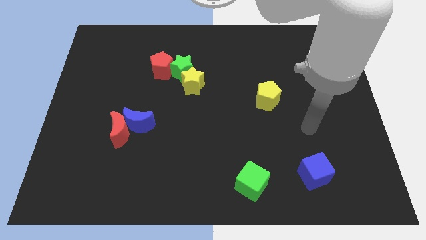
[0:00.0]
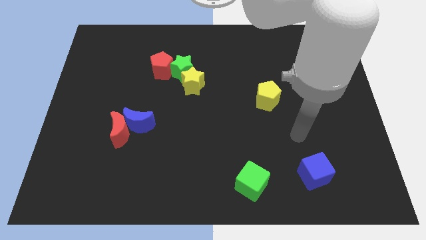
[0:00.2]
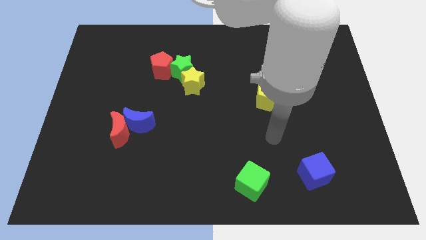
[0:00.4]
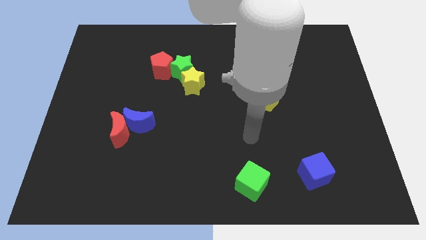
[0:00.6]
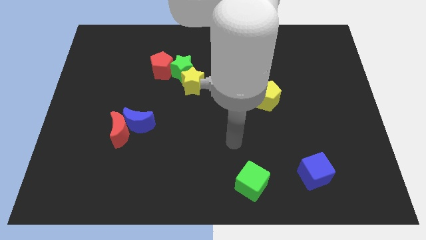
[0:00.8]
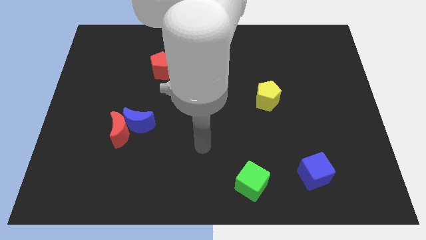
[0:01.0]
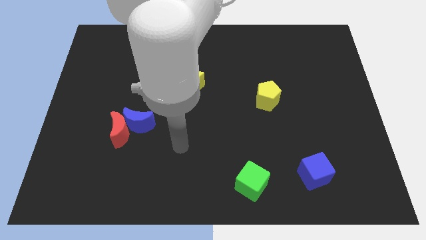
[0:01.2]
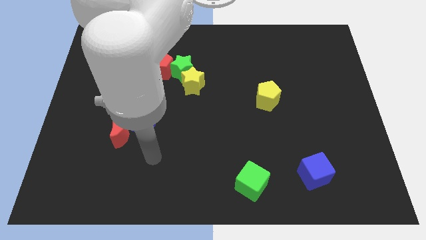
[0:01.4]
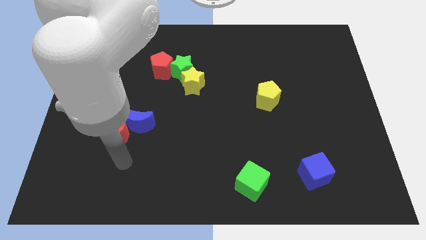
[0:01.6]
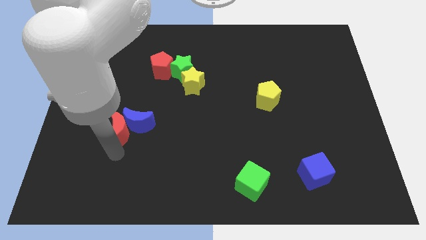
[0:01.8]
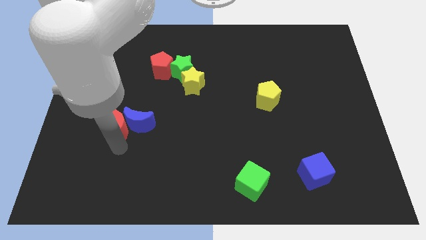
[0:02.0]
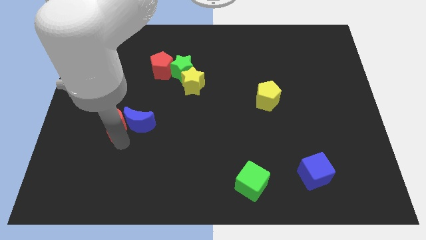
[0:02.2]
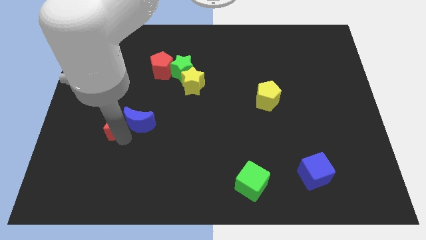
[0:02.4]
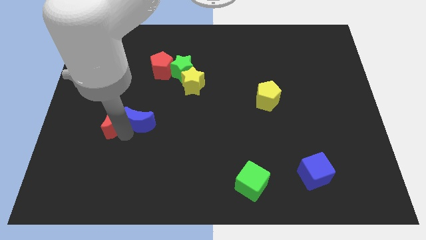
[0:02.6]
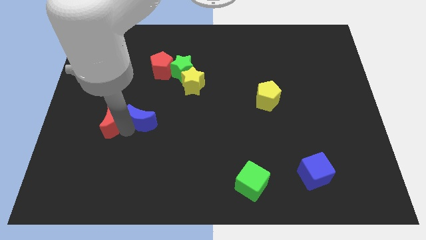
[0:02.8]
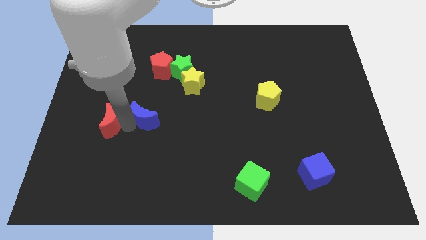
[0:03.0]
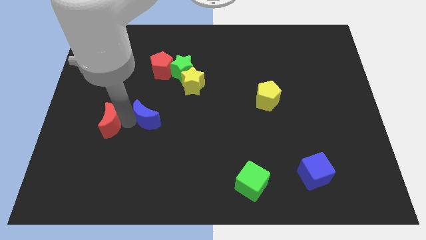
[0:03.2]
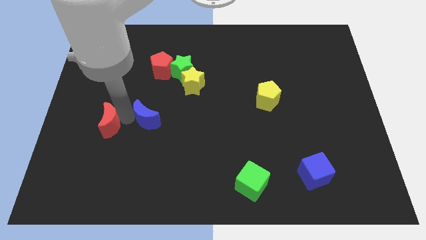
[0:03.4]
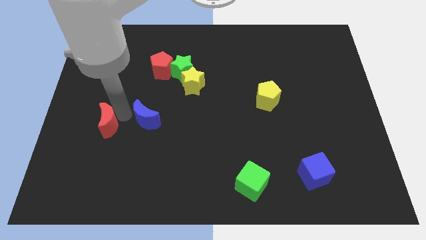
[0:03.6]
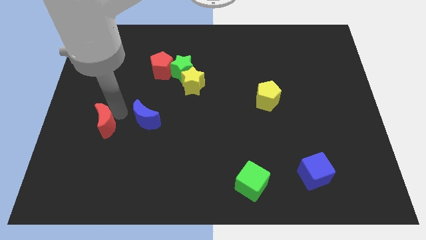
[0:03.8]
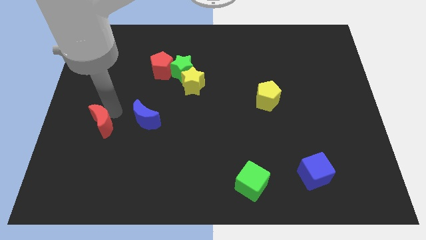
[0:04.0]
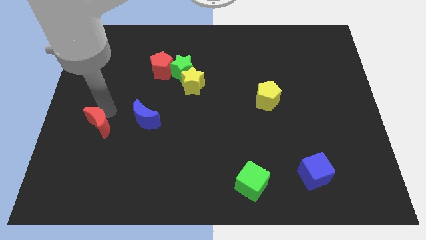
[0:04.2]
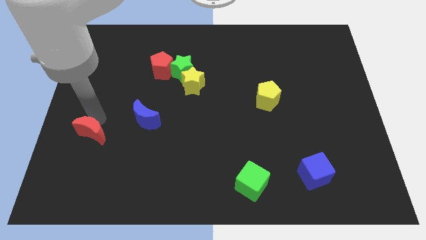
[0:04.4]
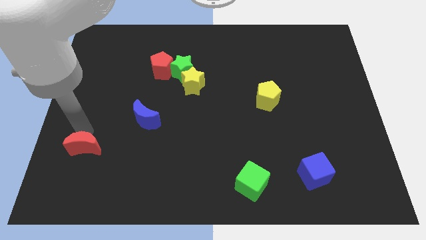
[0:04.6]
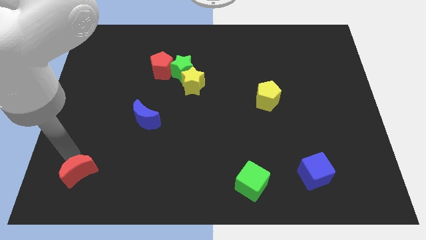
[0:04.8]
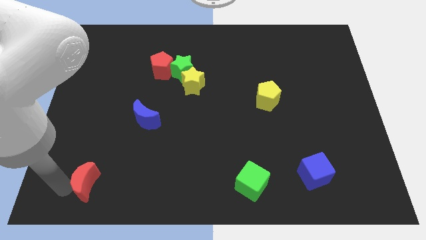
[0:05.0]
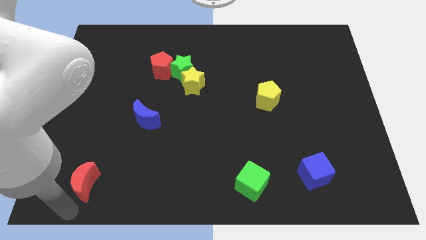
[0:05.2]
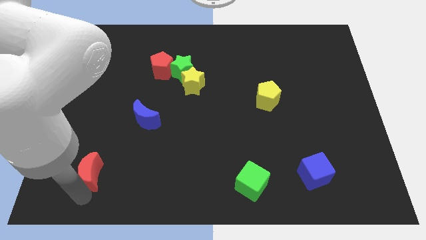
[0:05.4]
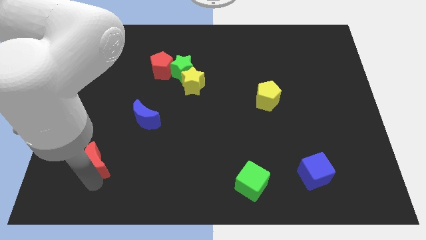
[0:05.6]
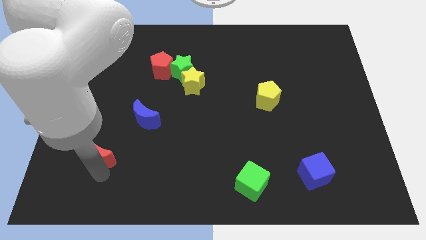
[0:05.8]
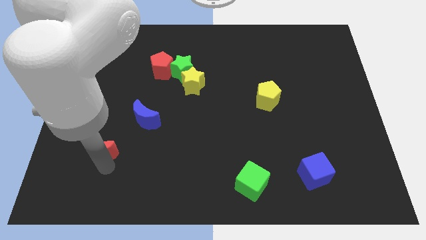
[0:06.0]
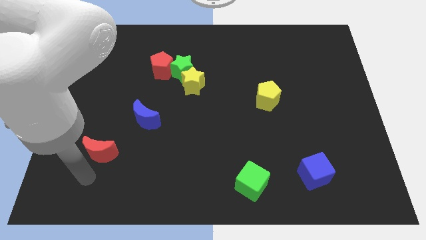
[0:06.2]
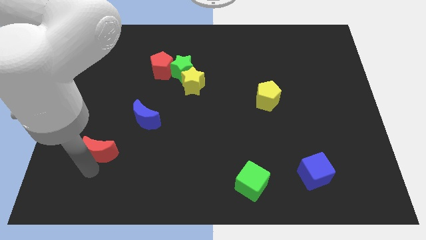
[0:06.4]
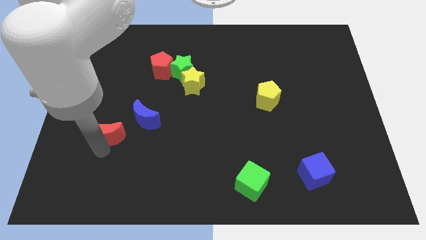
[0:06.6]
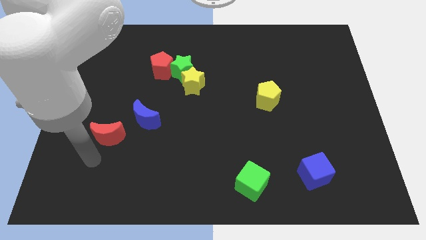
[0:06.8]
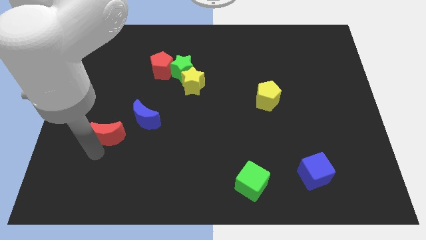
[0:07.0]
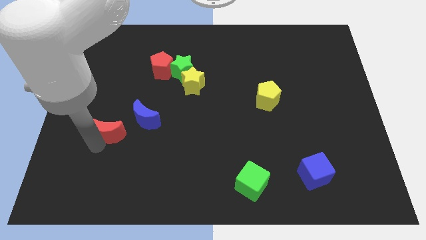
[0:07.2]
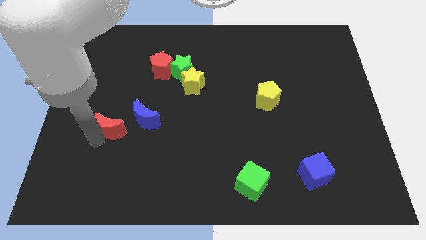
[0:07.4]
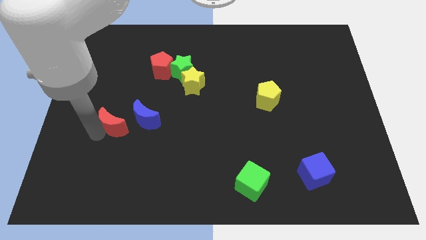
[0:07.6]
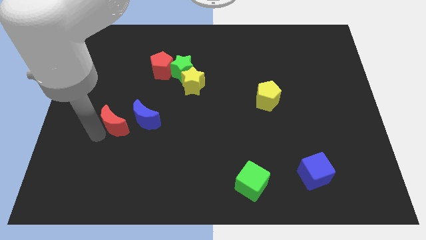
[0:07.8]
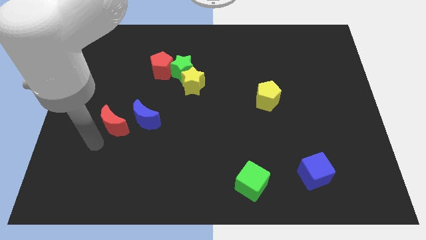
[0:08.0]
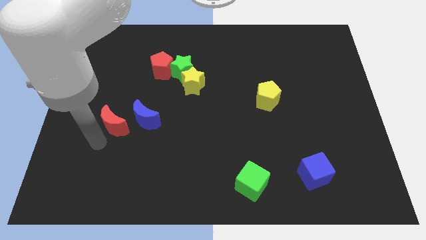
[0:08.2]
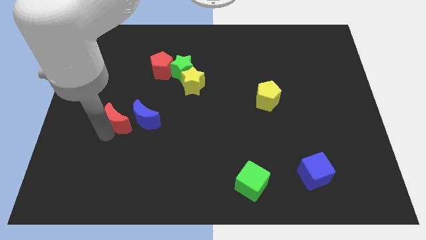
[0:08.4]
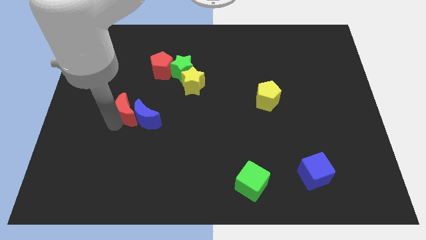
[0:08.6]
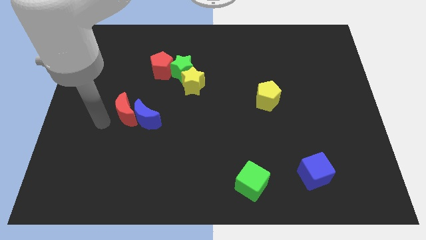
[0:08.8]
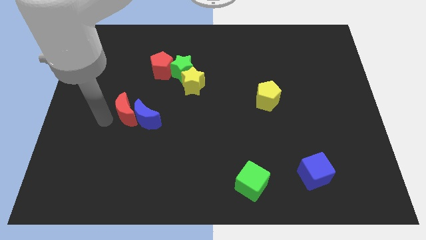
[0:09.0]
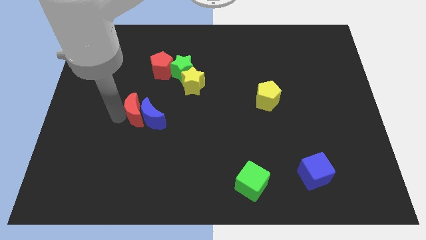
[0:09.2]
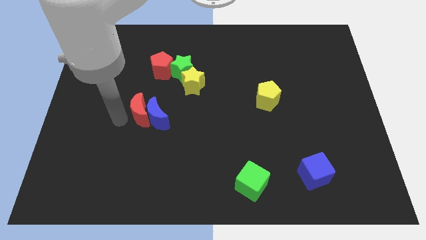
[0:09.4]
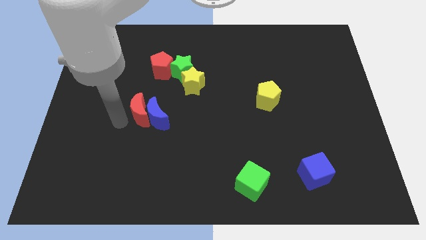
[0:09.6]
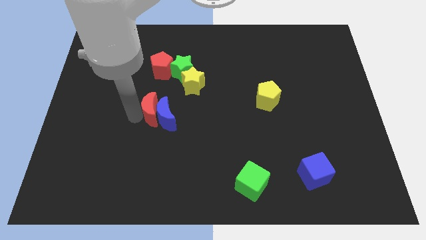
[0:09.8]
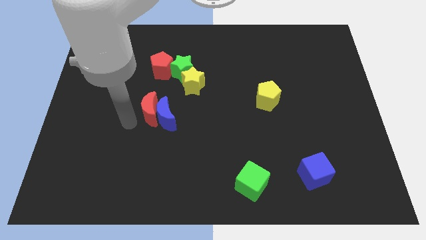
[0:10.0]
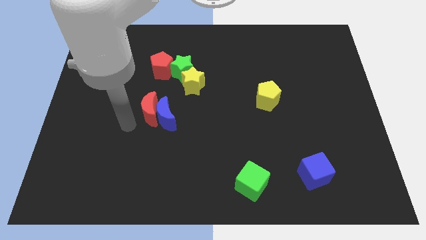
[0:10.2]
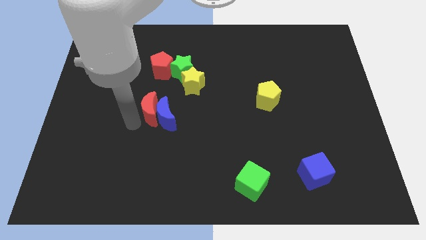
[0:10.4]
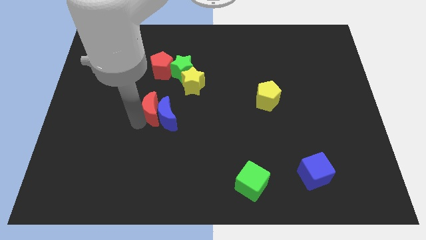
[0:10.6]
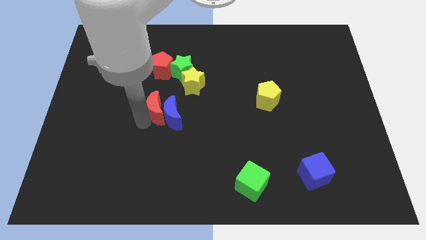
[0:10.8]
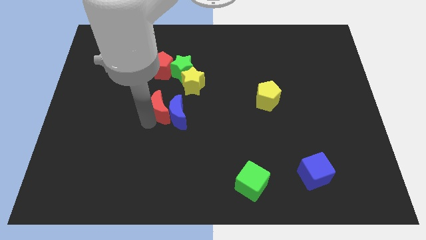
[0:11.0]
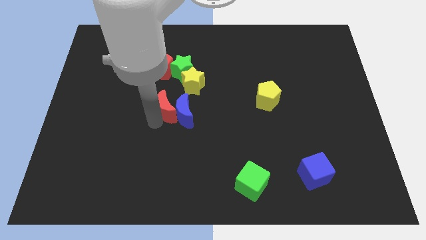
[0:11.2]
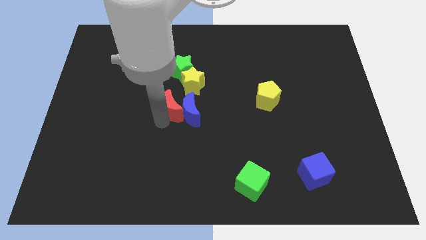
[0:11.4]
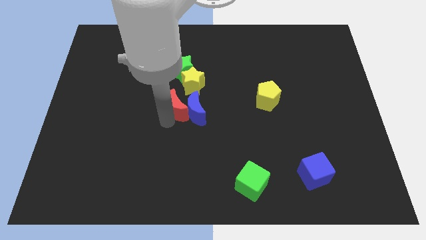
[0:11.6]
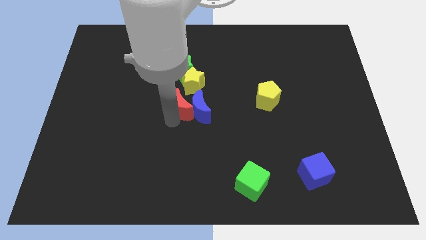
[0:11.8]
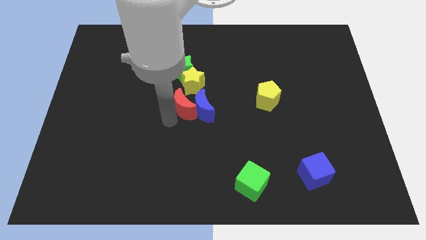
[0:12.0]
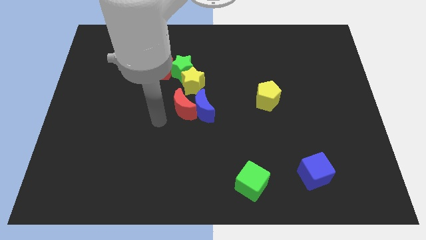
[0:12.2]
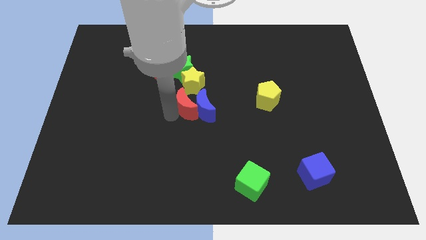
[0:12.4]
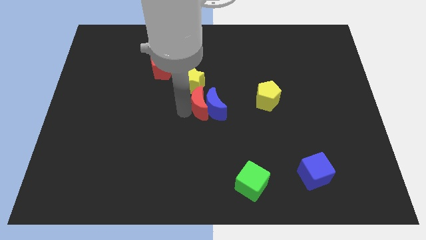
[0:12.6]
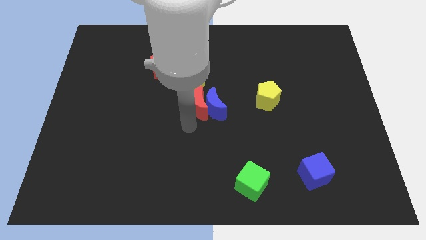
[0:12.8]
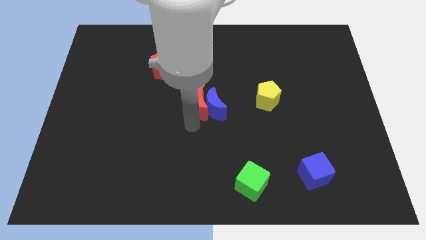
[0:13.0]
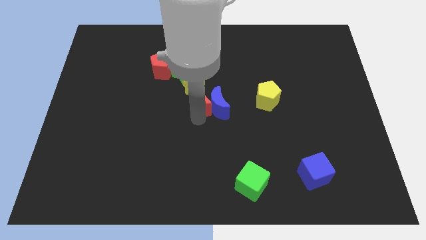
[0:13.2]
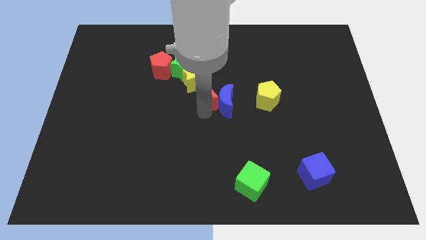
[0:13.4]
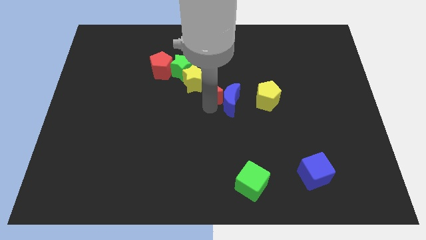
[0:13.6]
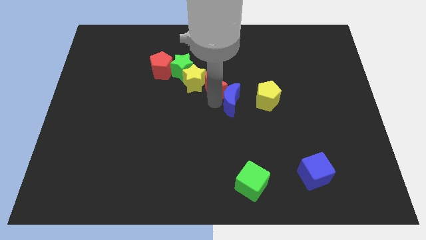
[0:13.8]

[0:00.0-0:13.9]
push the red moon diagonally up and to the right of the yellow star

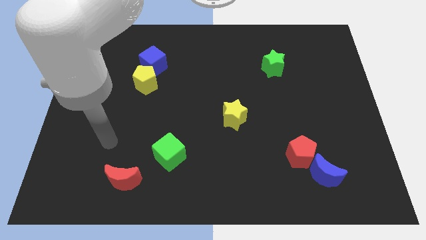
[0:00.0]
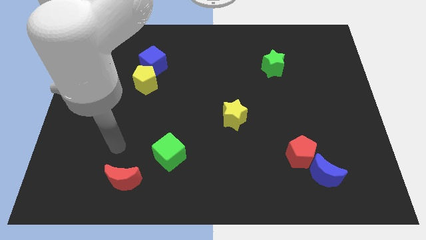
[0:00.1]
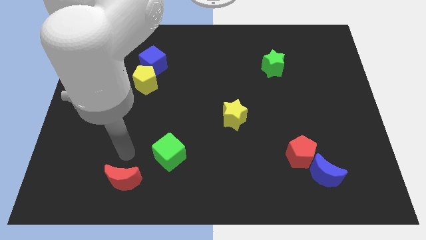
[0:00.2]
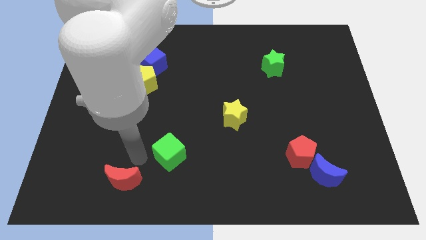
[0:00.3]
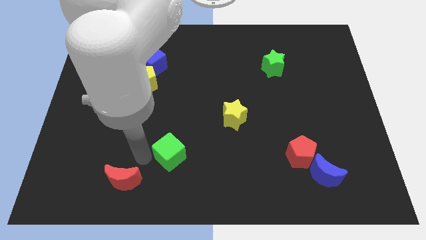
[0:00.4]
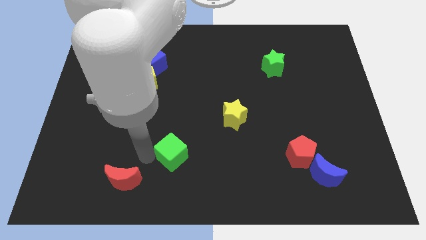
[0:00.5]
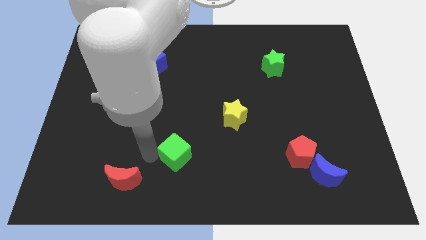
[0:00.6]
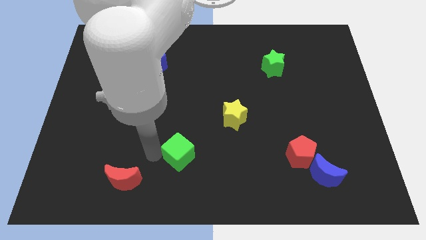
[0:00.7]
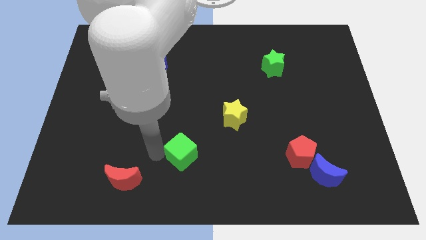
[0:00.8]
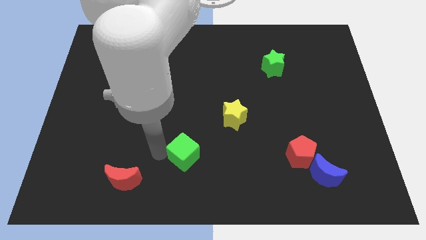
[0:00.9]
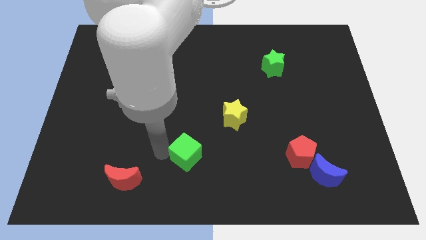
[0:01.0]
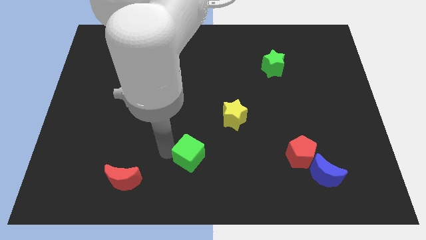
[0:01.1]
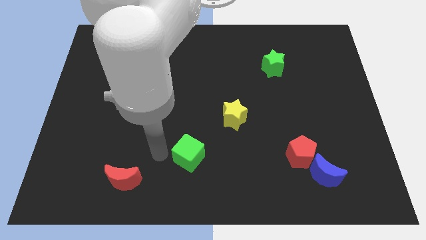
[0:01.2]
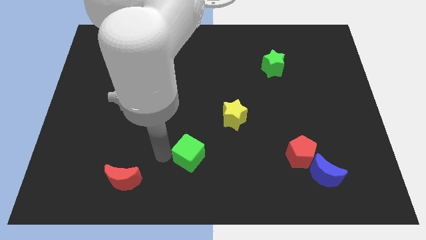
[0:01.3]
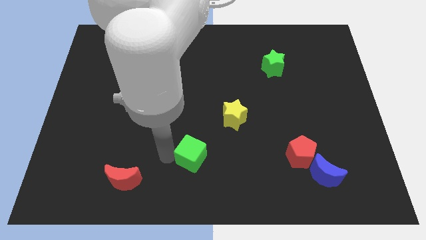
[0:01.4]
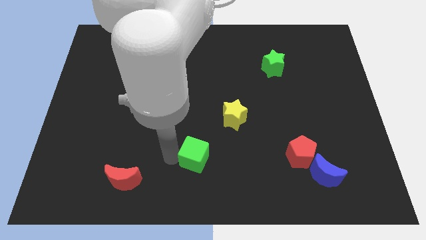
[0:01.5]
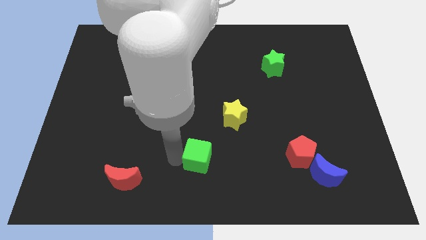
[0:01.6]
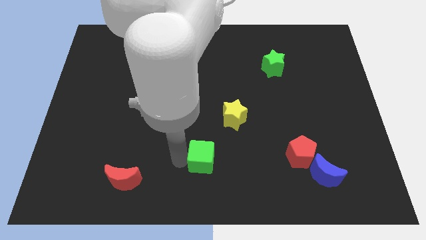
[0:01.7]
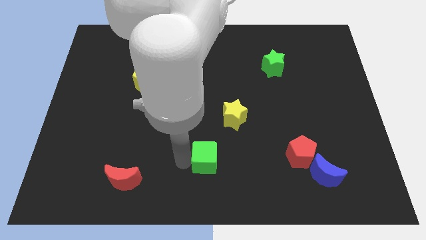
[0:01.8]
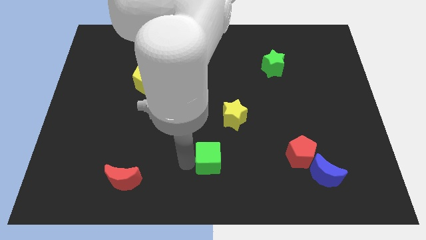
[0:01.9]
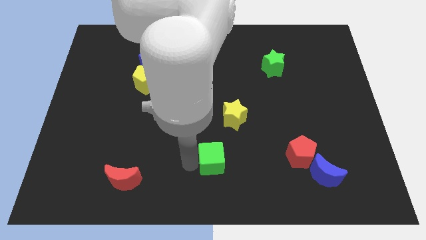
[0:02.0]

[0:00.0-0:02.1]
slide the green cube below the yellow star
